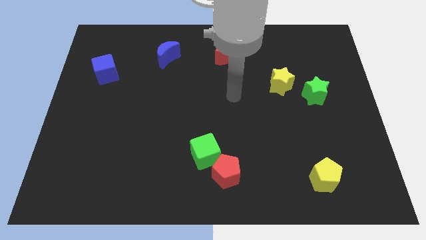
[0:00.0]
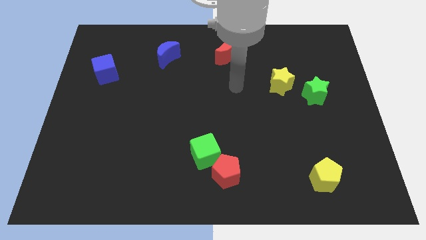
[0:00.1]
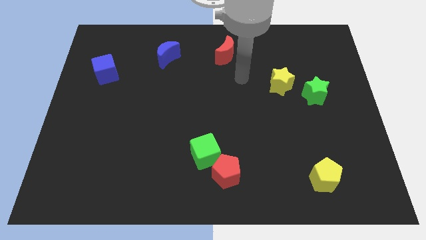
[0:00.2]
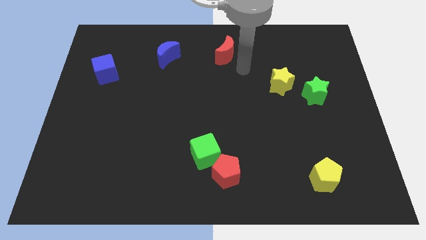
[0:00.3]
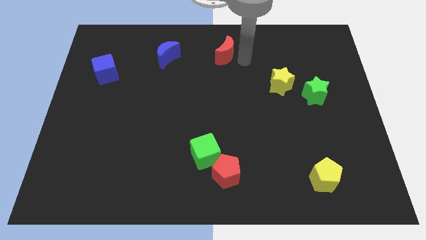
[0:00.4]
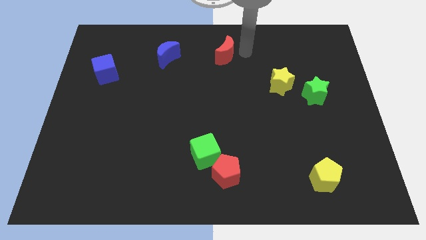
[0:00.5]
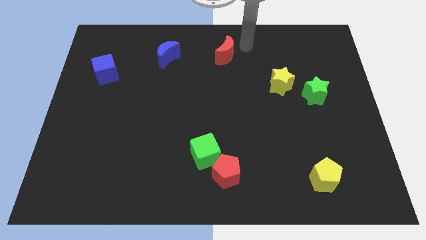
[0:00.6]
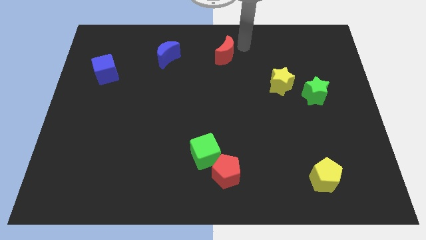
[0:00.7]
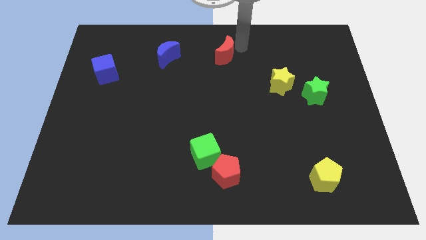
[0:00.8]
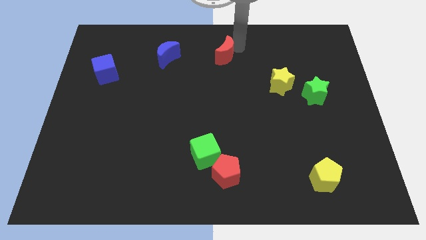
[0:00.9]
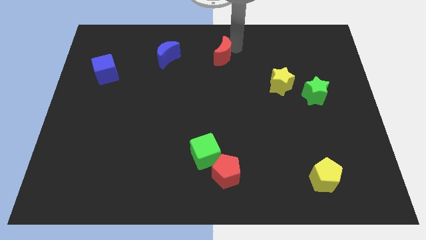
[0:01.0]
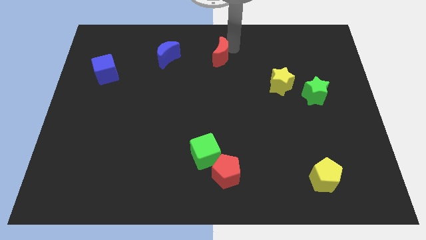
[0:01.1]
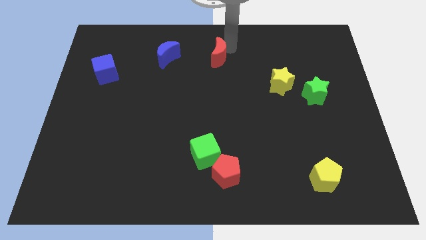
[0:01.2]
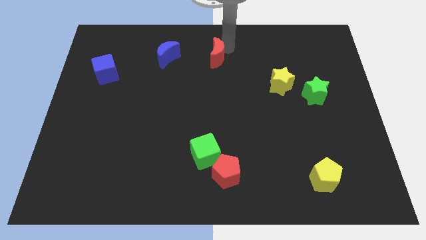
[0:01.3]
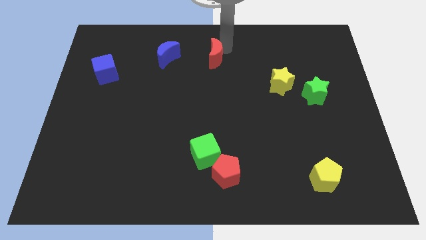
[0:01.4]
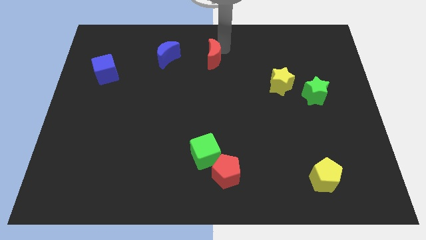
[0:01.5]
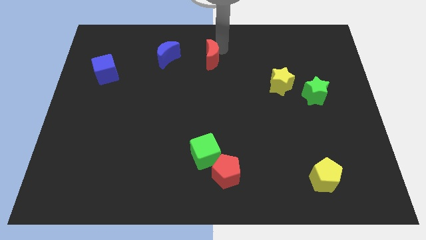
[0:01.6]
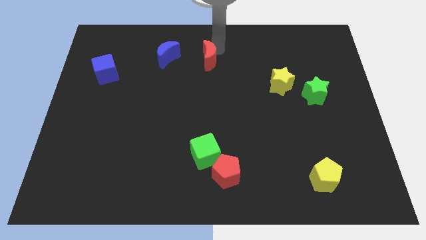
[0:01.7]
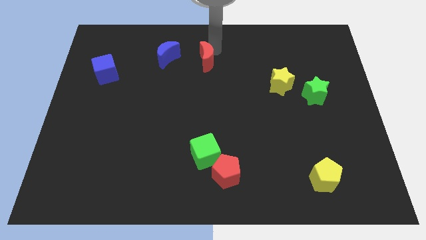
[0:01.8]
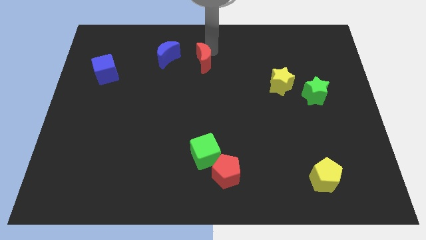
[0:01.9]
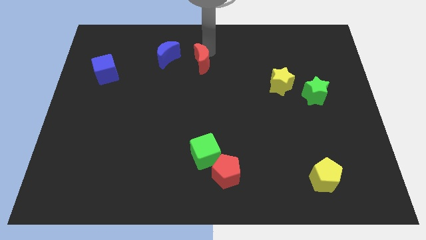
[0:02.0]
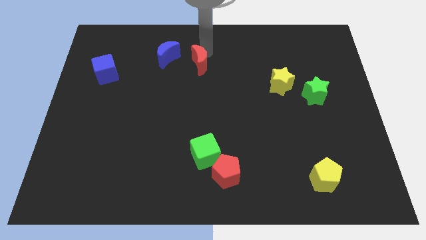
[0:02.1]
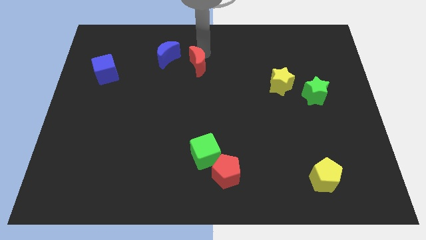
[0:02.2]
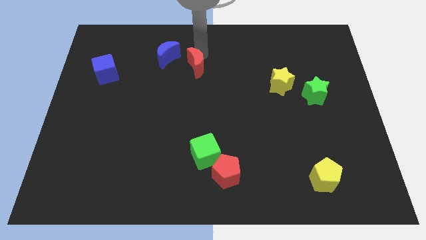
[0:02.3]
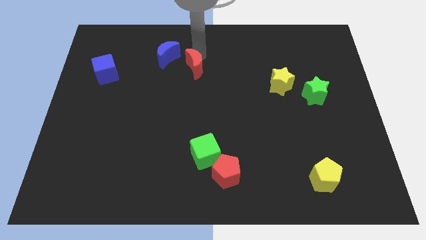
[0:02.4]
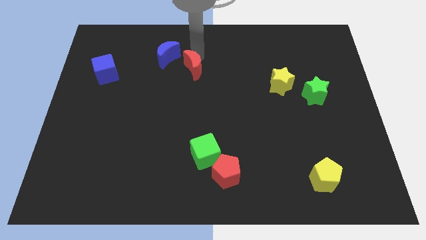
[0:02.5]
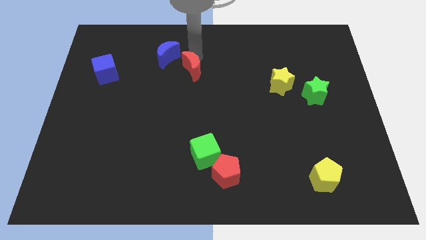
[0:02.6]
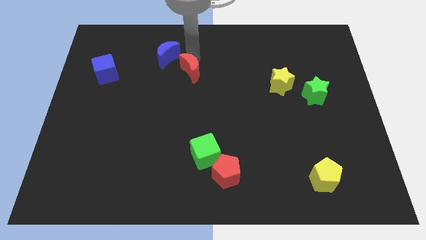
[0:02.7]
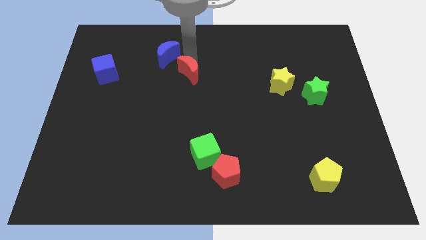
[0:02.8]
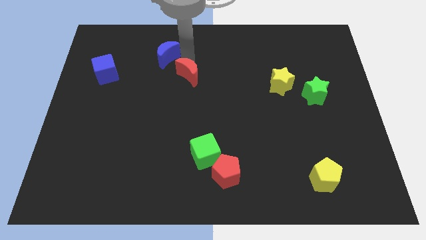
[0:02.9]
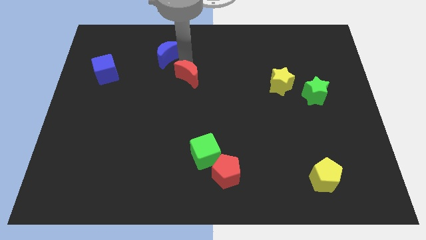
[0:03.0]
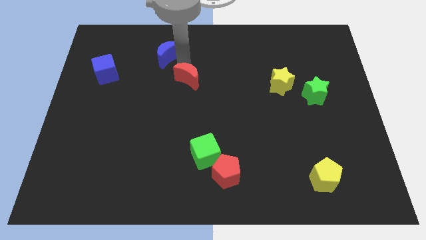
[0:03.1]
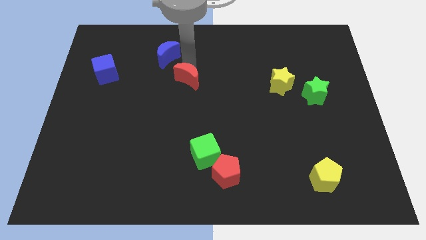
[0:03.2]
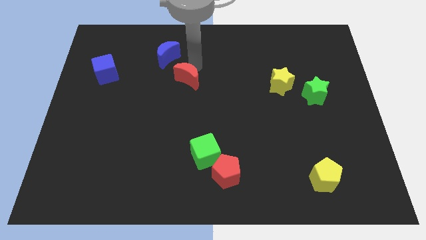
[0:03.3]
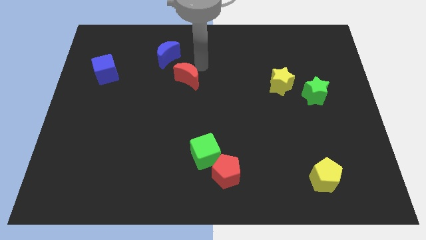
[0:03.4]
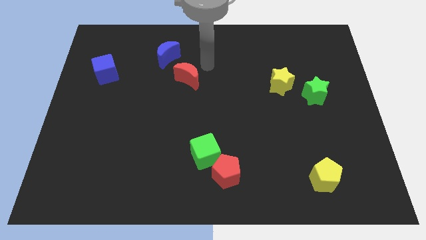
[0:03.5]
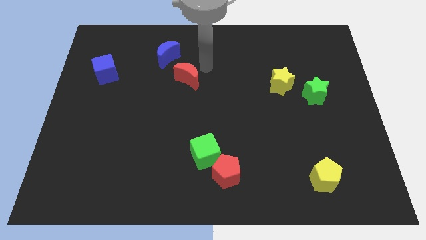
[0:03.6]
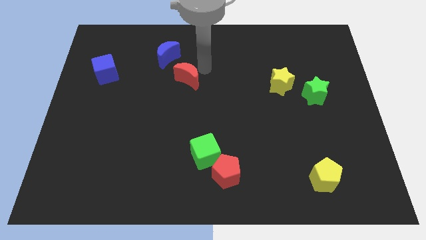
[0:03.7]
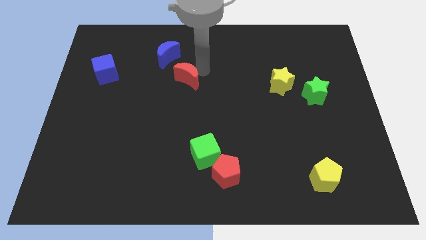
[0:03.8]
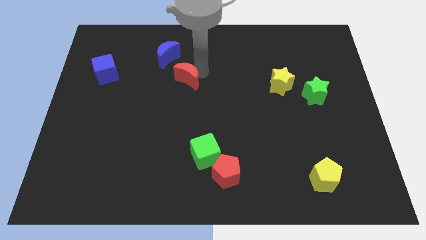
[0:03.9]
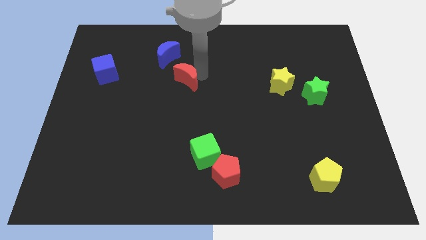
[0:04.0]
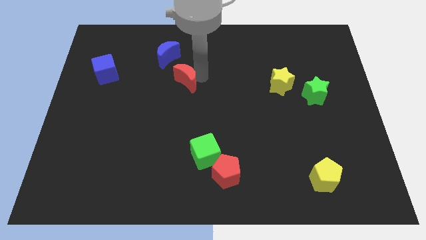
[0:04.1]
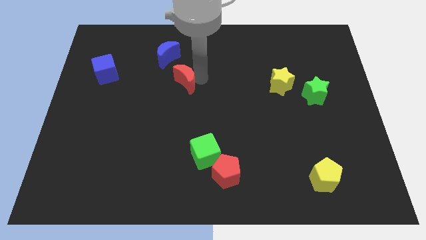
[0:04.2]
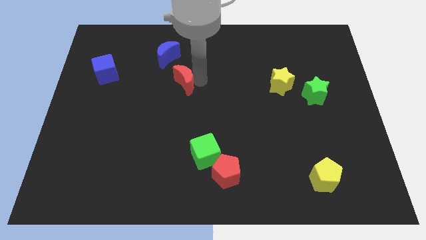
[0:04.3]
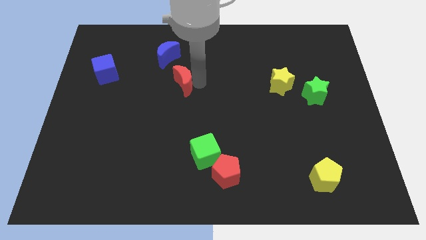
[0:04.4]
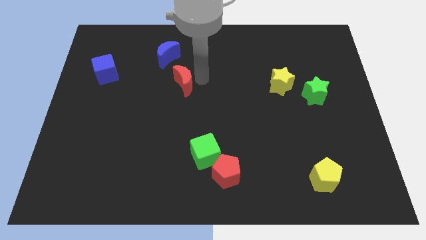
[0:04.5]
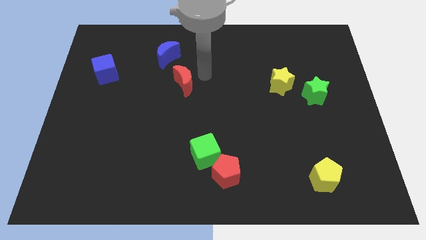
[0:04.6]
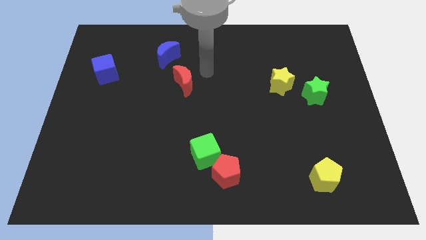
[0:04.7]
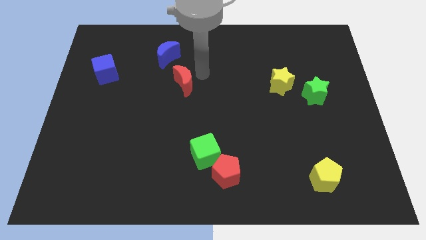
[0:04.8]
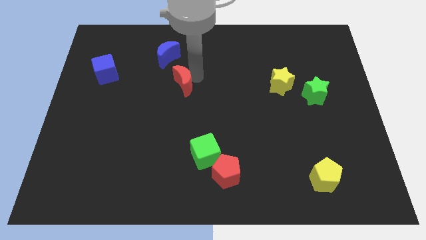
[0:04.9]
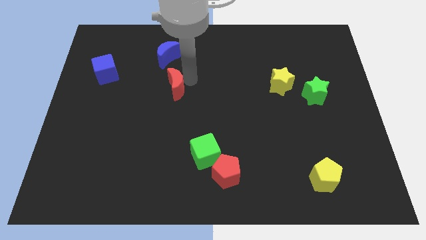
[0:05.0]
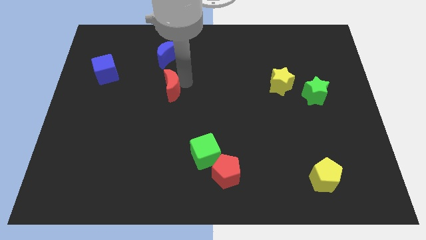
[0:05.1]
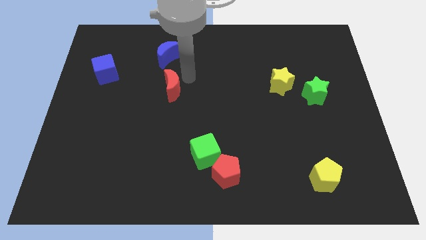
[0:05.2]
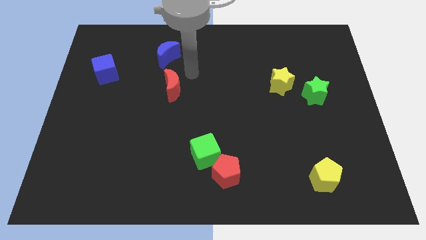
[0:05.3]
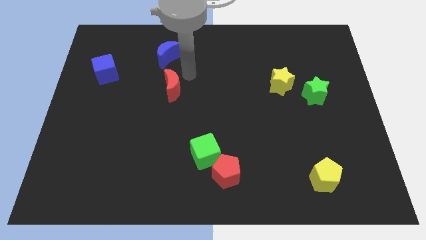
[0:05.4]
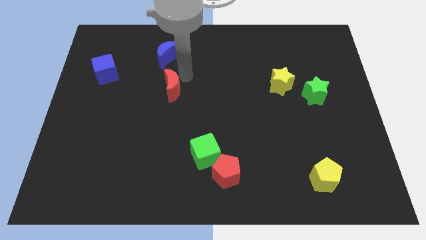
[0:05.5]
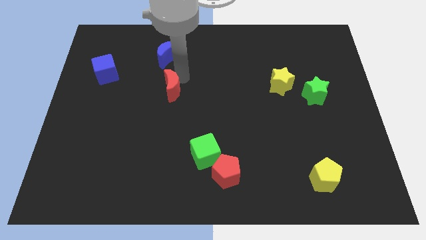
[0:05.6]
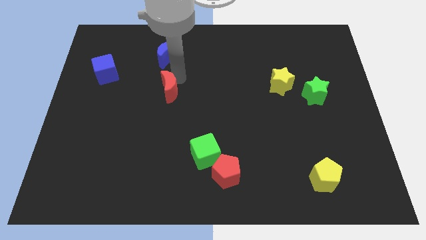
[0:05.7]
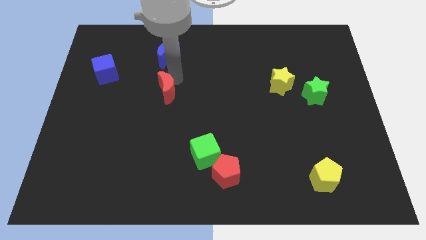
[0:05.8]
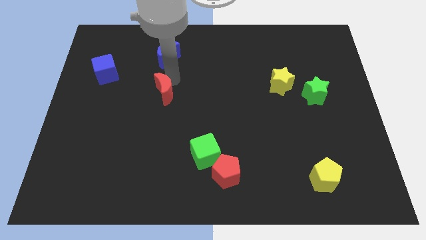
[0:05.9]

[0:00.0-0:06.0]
move the red moon down and then left

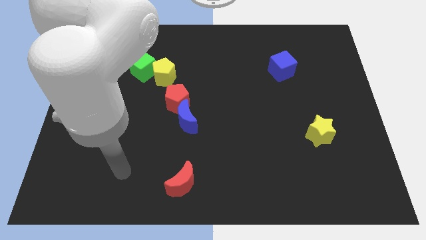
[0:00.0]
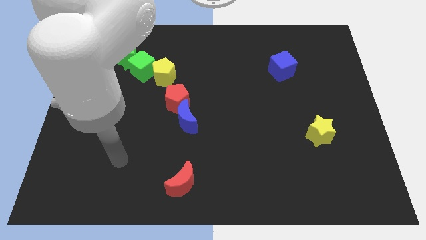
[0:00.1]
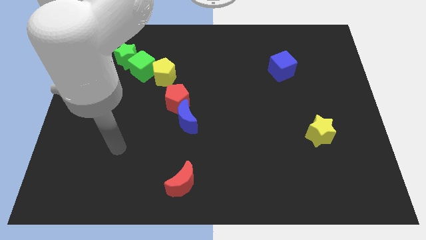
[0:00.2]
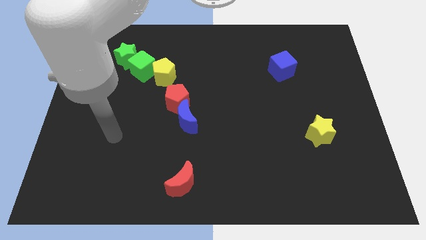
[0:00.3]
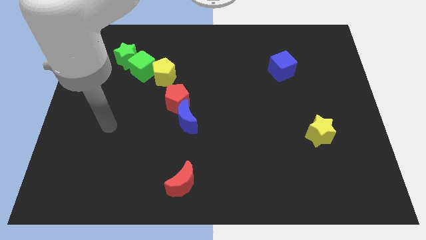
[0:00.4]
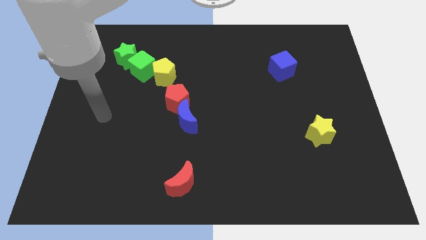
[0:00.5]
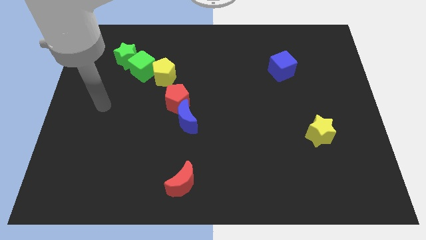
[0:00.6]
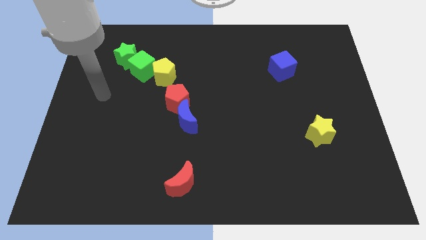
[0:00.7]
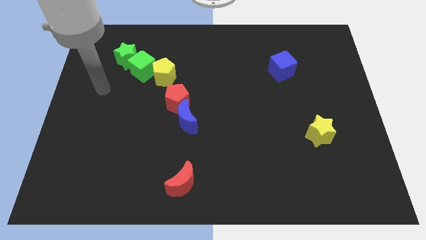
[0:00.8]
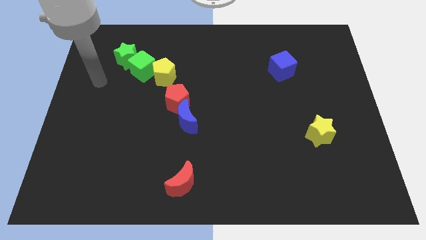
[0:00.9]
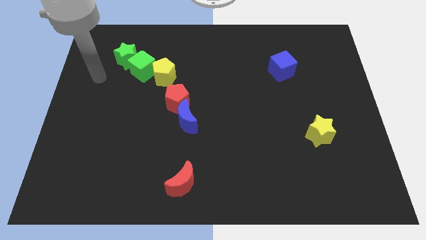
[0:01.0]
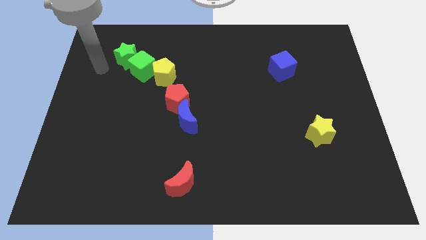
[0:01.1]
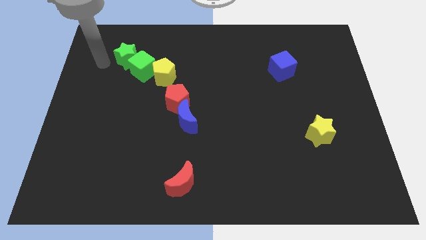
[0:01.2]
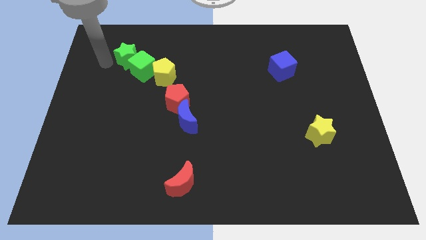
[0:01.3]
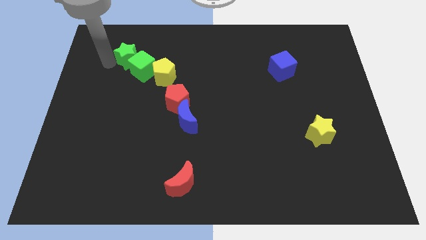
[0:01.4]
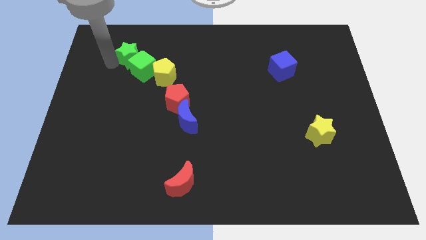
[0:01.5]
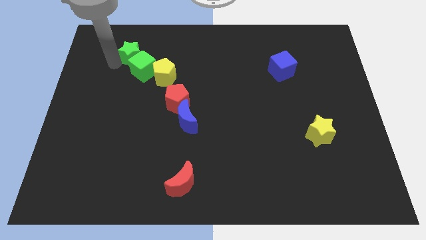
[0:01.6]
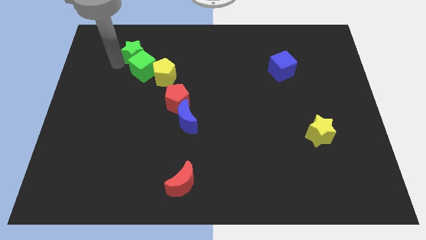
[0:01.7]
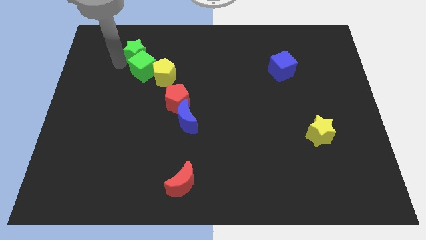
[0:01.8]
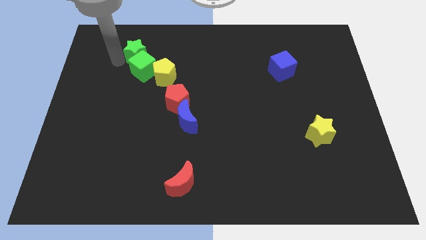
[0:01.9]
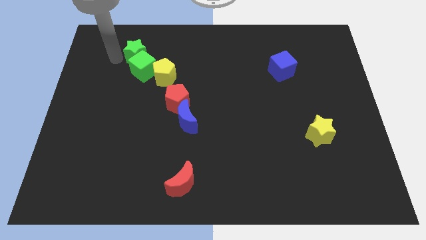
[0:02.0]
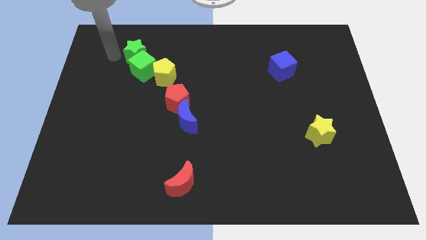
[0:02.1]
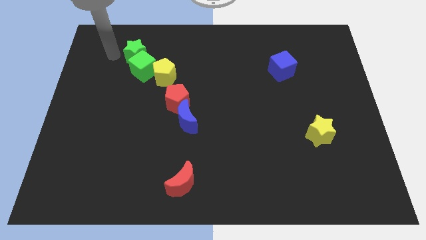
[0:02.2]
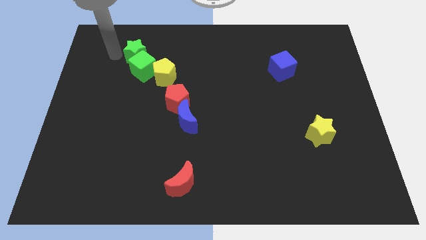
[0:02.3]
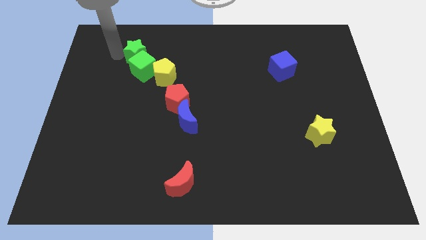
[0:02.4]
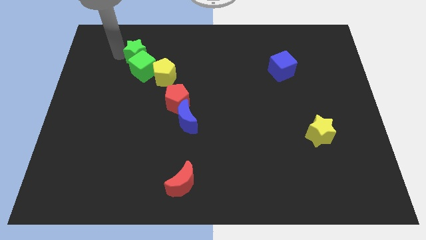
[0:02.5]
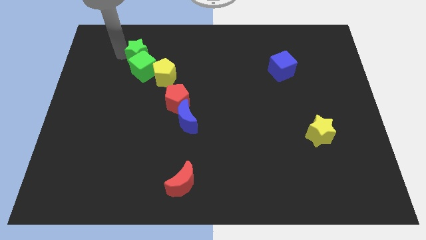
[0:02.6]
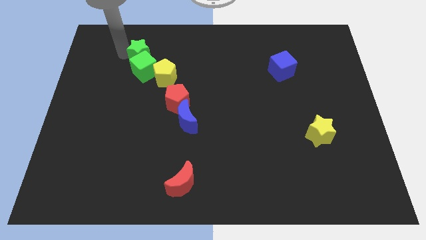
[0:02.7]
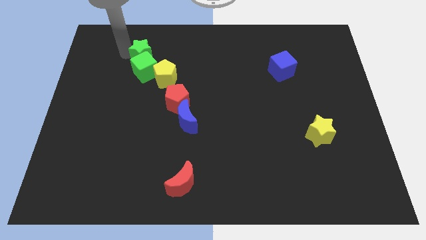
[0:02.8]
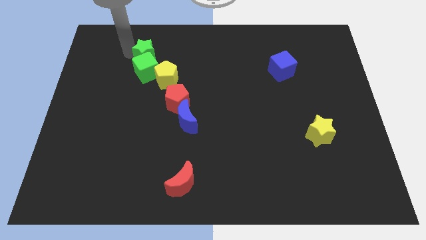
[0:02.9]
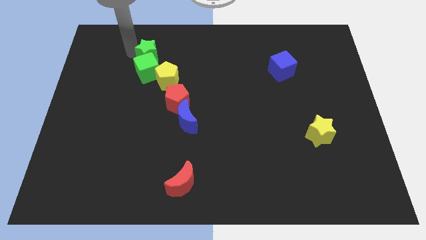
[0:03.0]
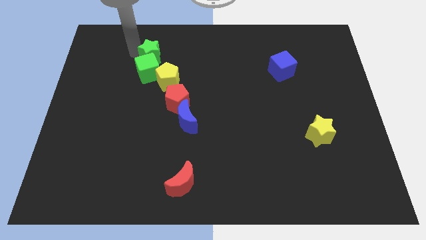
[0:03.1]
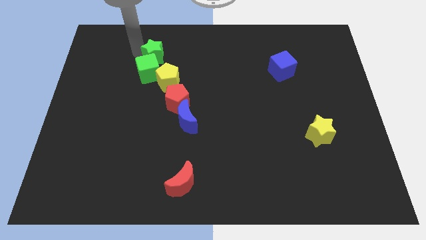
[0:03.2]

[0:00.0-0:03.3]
slightly push the green star right
